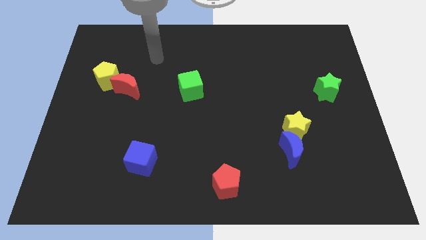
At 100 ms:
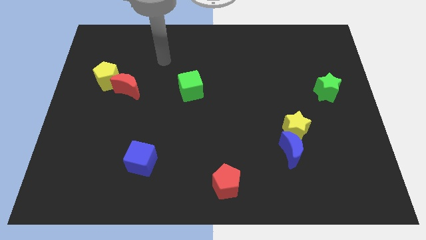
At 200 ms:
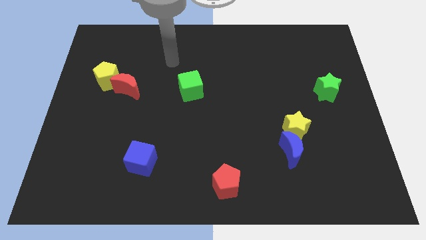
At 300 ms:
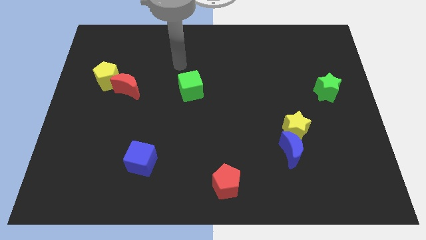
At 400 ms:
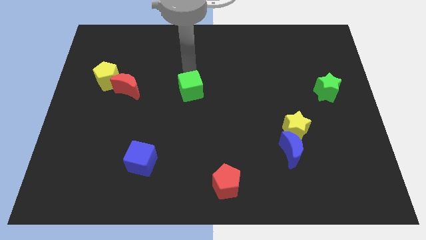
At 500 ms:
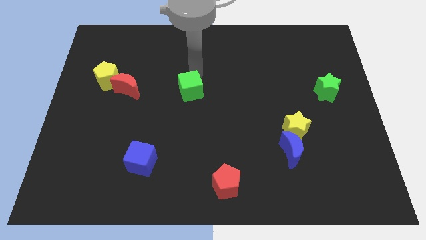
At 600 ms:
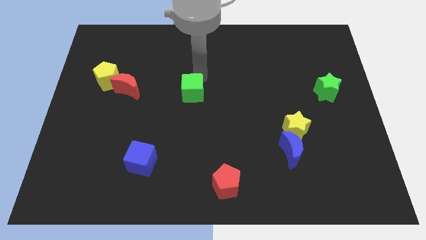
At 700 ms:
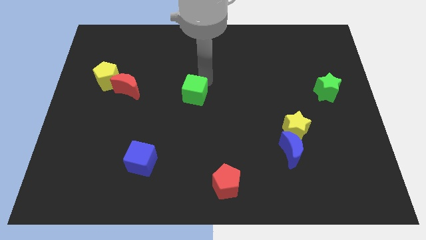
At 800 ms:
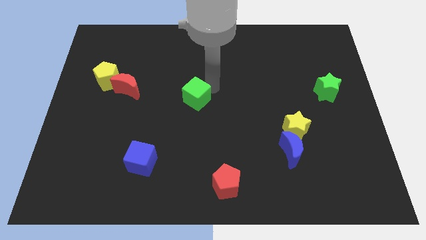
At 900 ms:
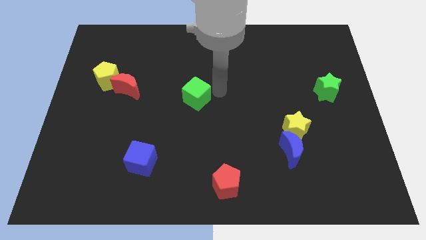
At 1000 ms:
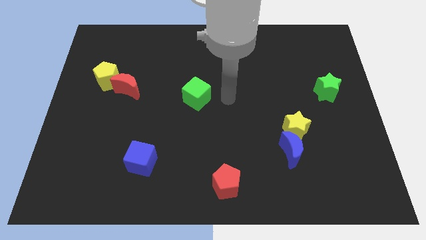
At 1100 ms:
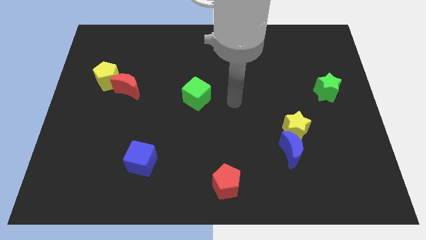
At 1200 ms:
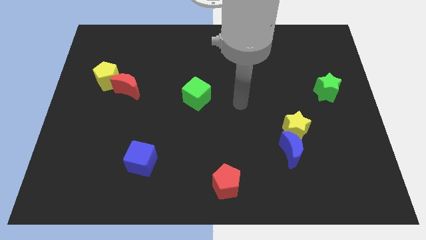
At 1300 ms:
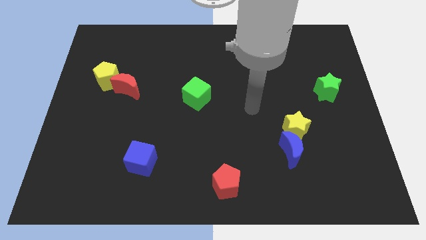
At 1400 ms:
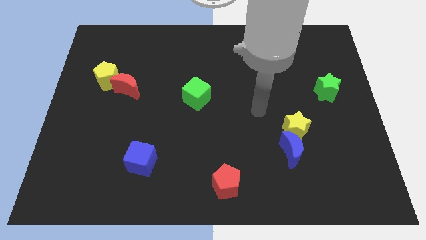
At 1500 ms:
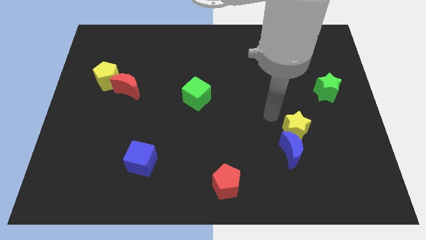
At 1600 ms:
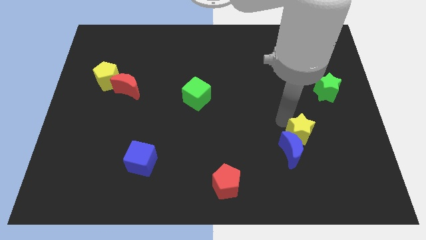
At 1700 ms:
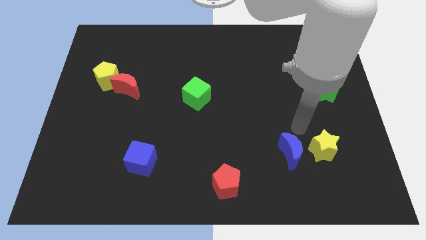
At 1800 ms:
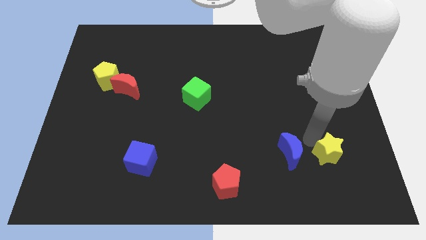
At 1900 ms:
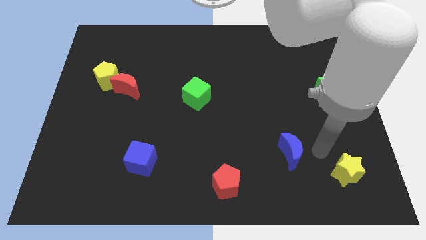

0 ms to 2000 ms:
separate the blue moon from the yellow star

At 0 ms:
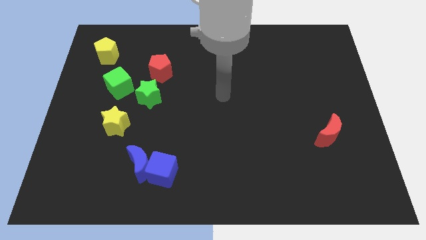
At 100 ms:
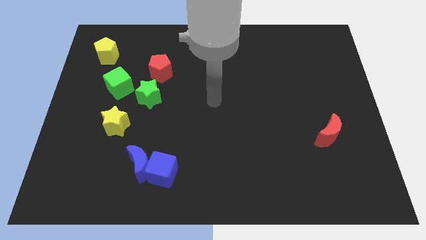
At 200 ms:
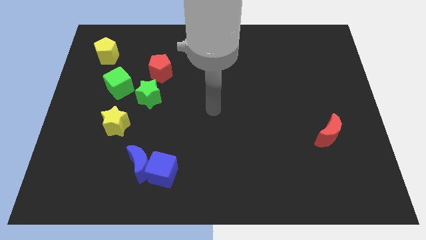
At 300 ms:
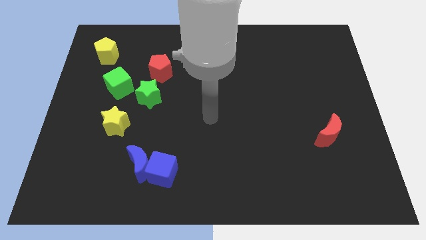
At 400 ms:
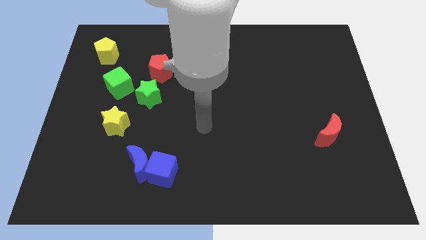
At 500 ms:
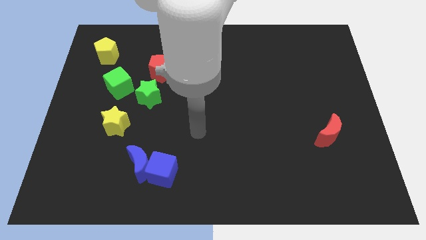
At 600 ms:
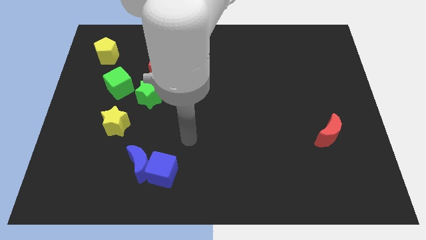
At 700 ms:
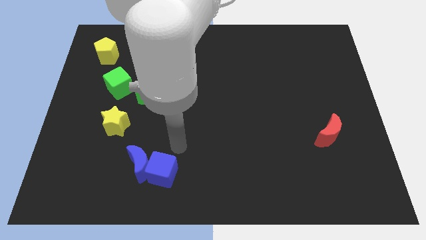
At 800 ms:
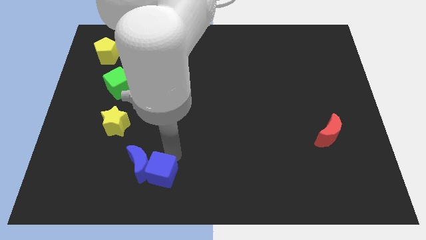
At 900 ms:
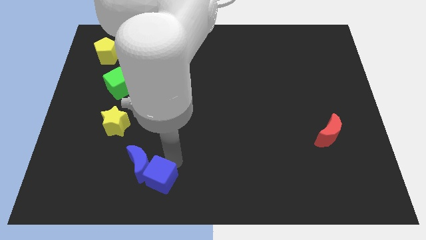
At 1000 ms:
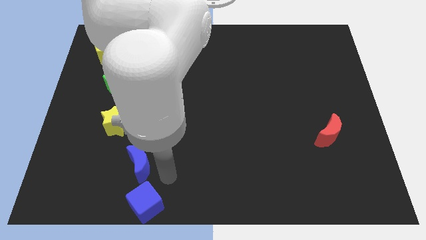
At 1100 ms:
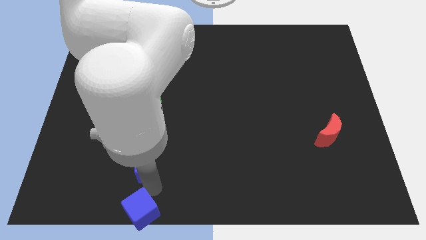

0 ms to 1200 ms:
pull the blue moon apart from the blue cube

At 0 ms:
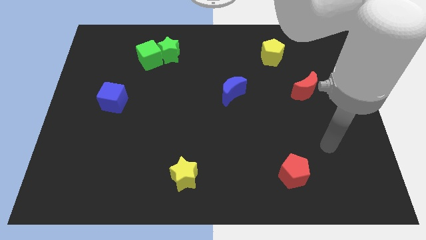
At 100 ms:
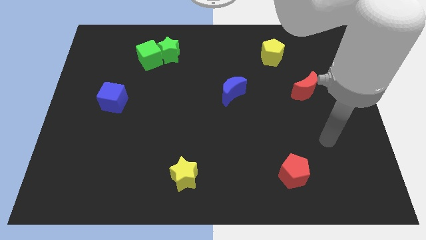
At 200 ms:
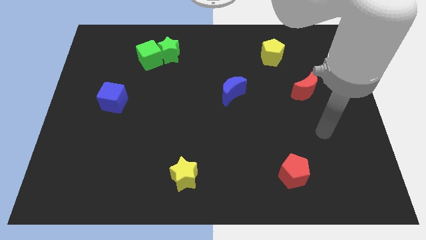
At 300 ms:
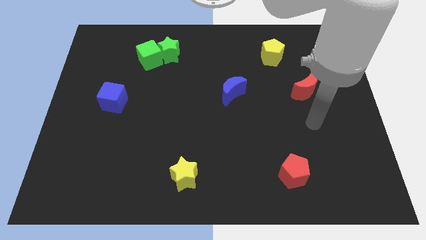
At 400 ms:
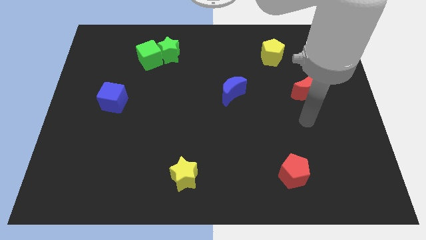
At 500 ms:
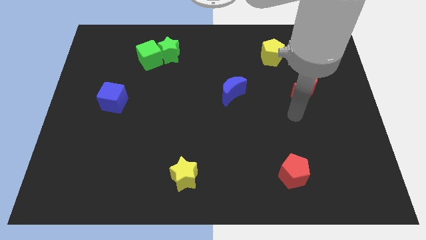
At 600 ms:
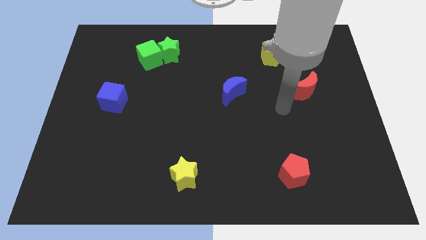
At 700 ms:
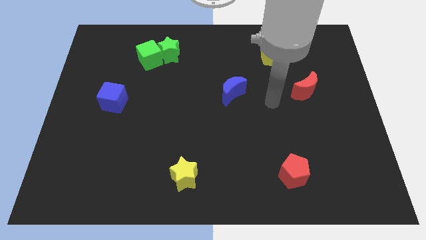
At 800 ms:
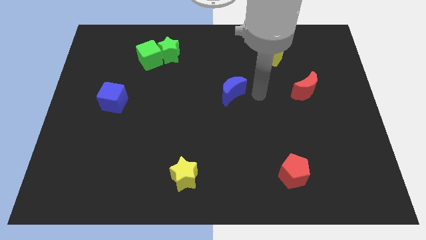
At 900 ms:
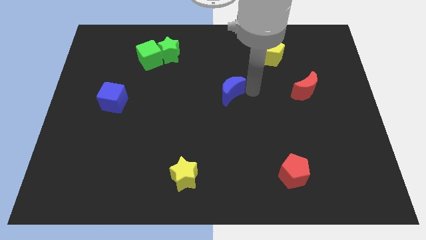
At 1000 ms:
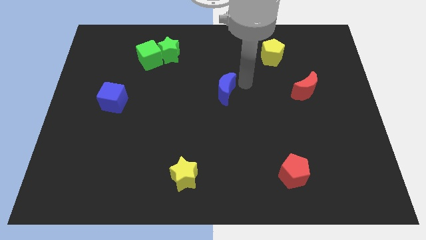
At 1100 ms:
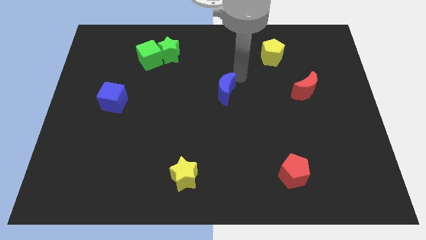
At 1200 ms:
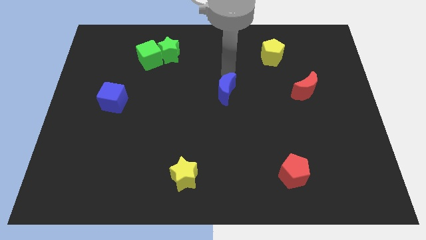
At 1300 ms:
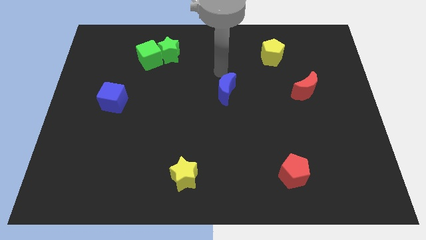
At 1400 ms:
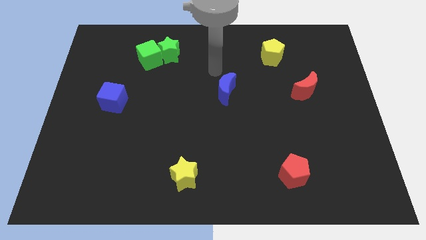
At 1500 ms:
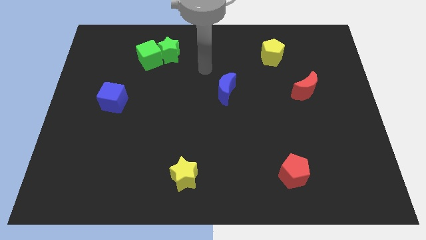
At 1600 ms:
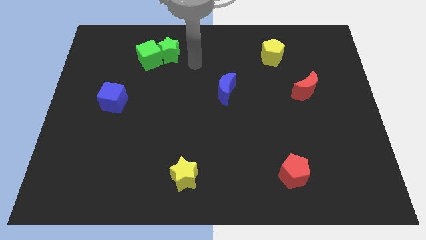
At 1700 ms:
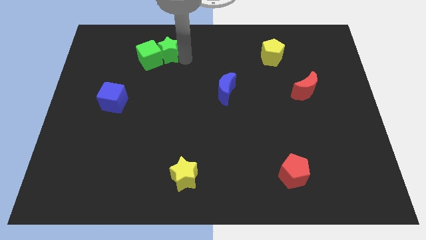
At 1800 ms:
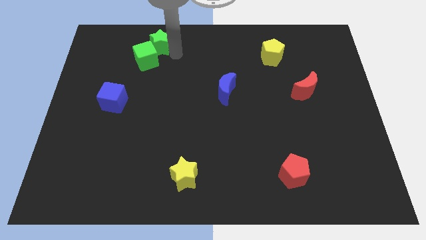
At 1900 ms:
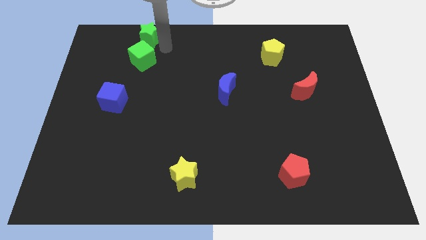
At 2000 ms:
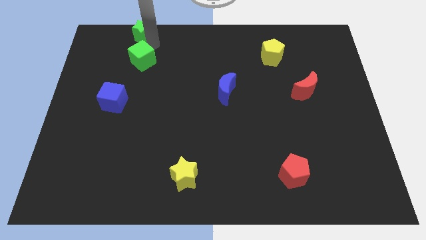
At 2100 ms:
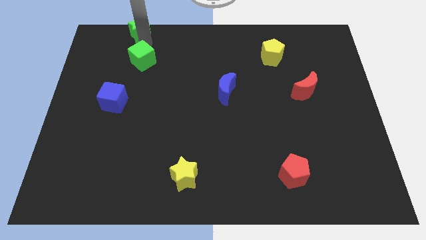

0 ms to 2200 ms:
pull the green cube apart from the green star

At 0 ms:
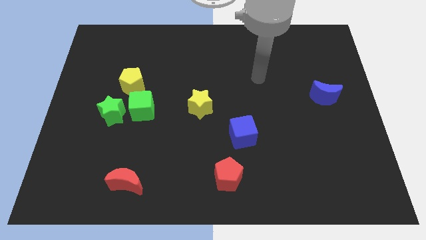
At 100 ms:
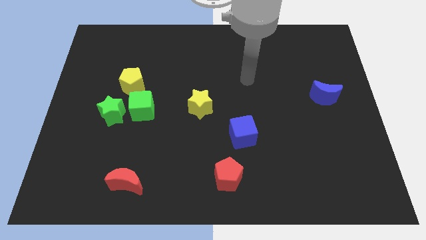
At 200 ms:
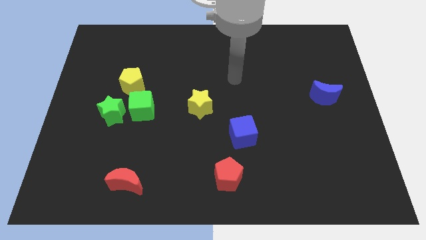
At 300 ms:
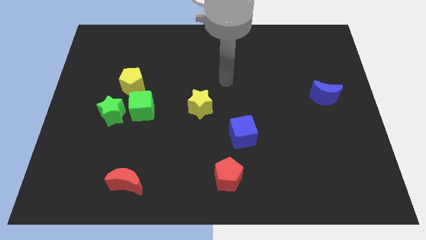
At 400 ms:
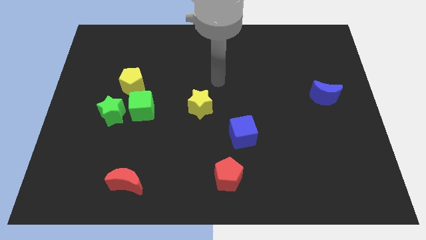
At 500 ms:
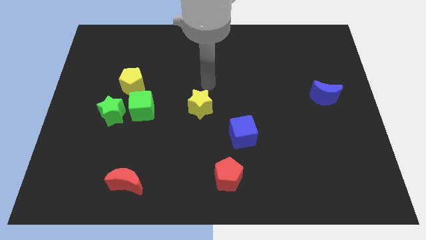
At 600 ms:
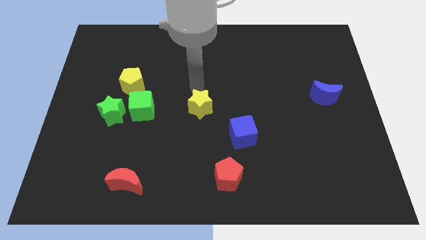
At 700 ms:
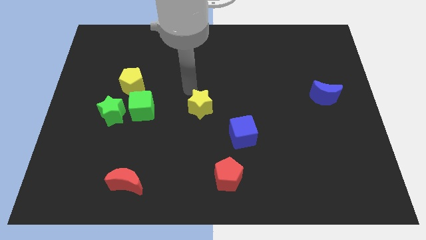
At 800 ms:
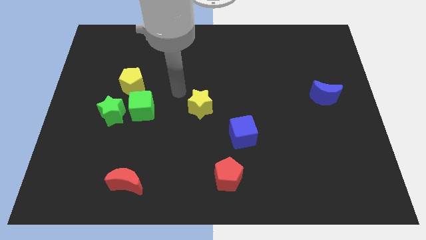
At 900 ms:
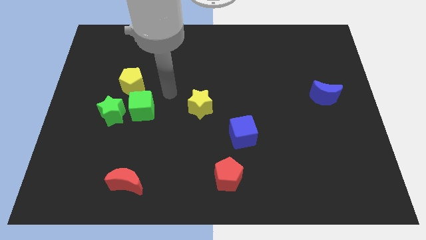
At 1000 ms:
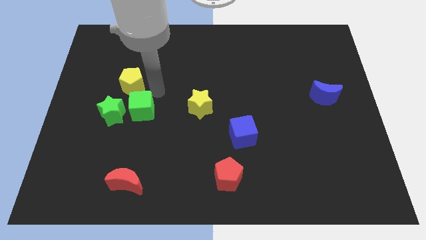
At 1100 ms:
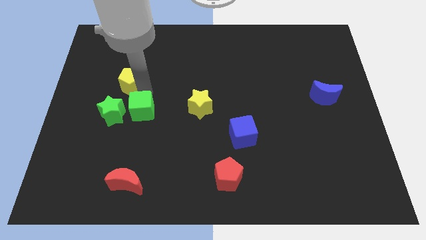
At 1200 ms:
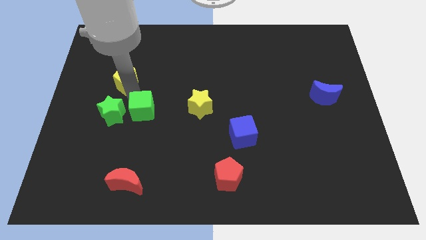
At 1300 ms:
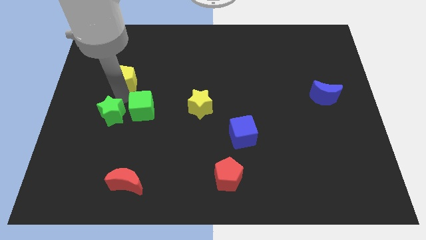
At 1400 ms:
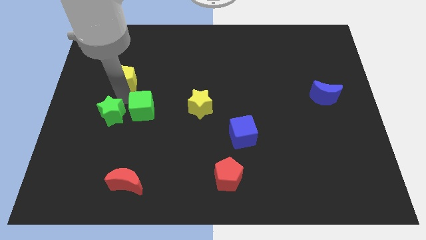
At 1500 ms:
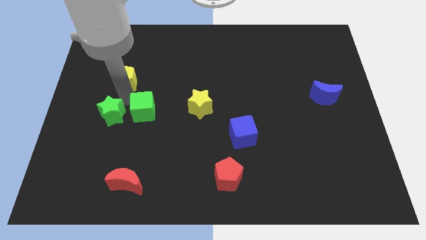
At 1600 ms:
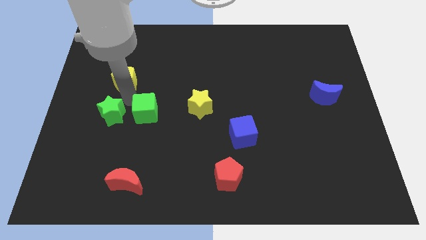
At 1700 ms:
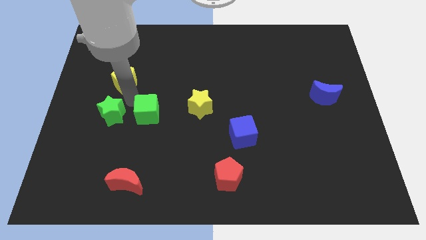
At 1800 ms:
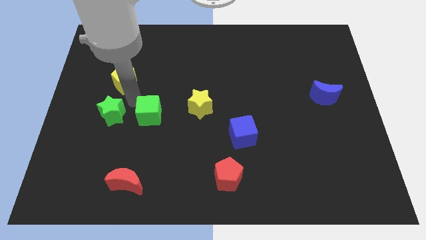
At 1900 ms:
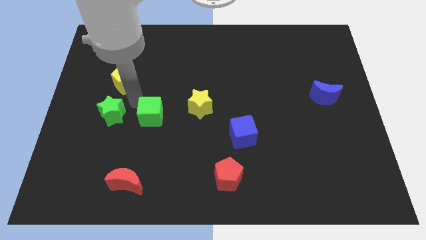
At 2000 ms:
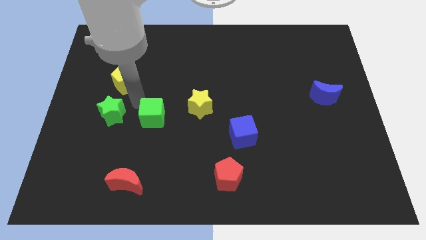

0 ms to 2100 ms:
separate the green cube from the green star and yellow pentagon

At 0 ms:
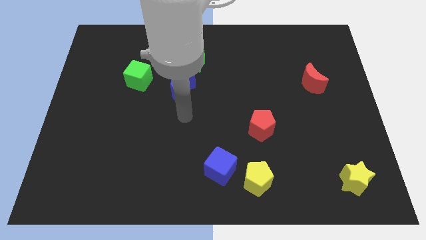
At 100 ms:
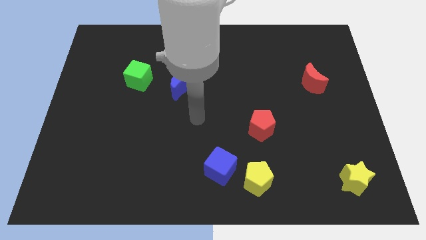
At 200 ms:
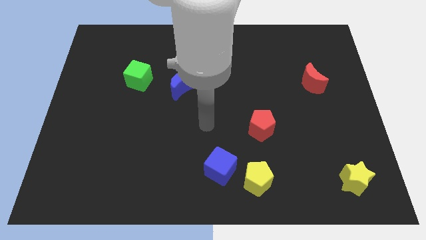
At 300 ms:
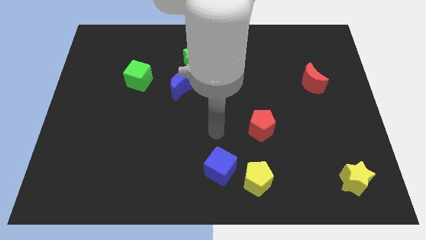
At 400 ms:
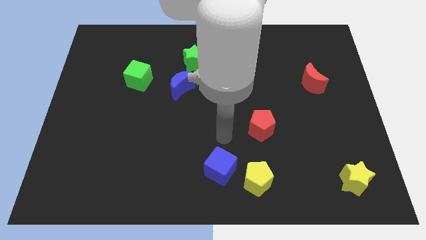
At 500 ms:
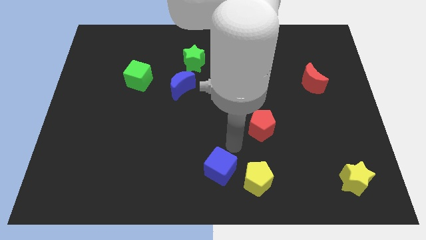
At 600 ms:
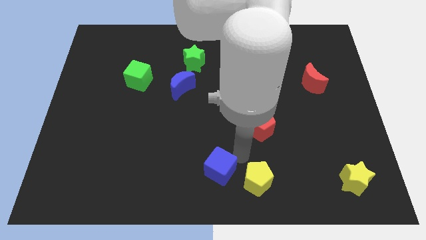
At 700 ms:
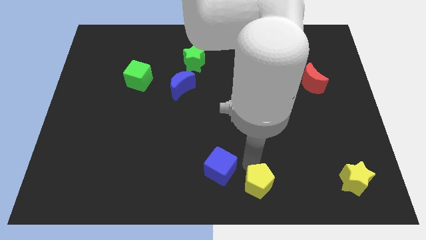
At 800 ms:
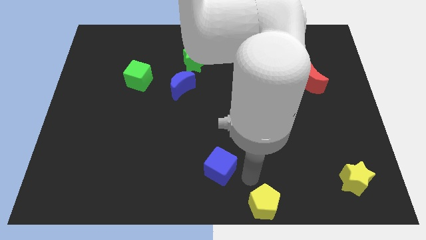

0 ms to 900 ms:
move the blue cube away from the yellow pentagon

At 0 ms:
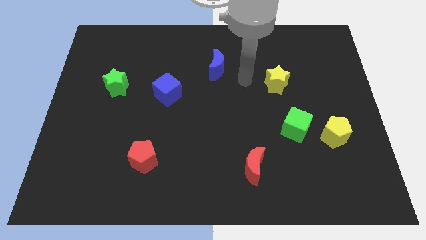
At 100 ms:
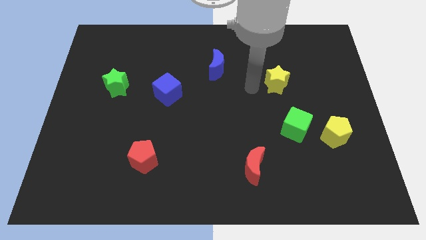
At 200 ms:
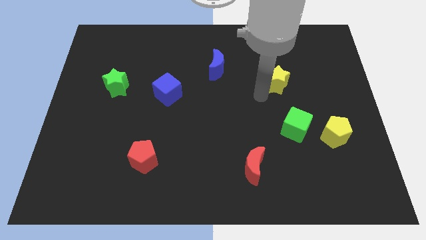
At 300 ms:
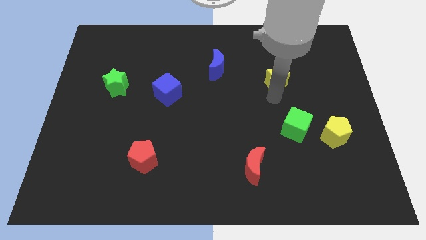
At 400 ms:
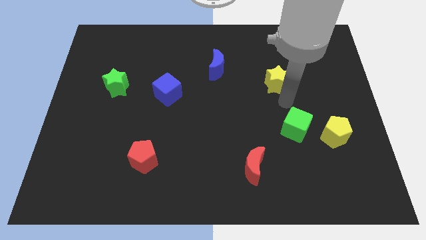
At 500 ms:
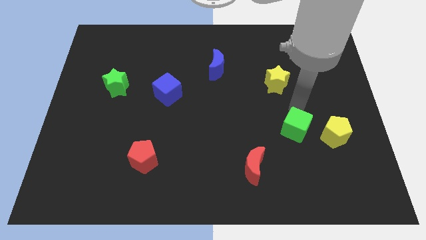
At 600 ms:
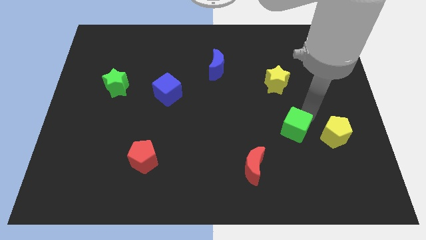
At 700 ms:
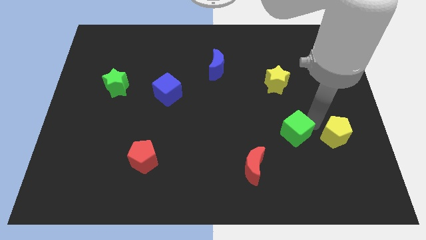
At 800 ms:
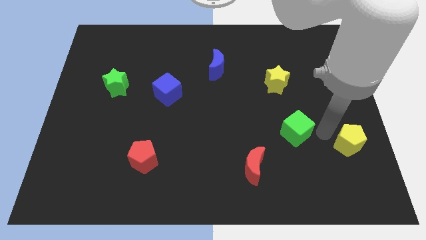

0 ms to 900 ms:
move the green cube away from the yellow pentagon
